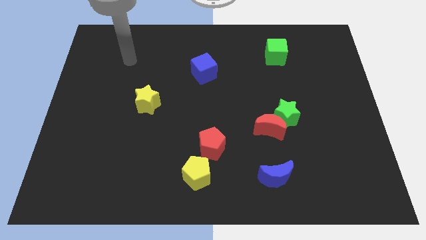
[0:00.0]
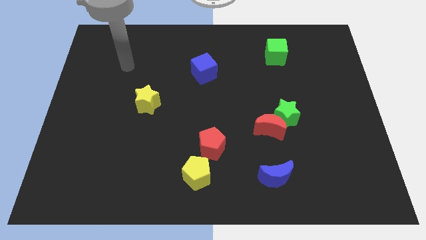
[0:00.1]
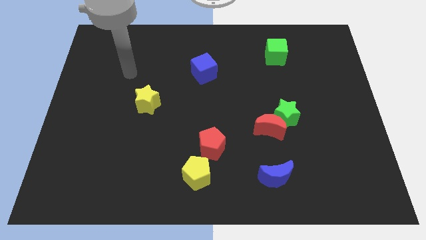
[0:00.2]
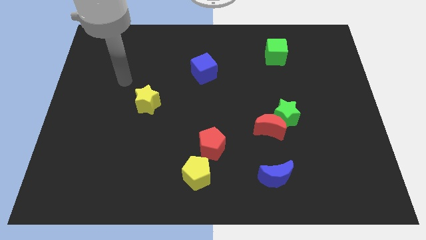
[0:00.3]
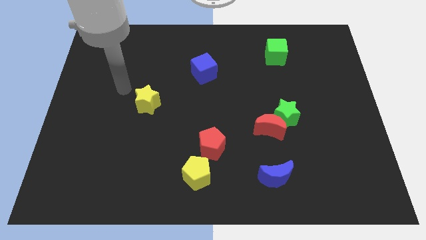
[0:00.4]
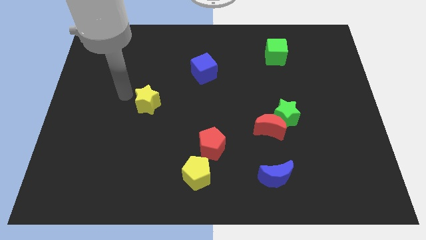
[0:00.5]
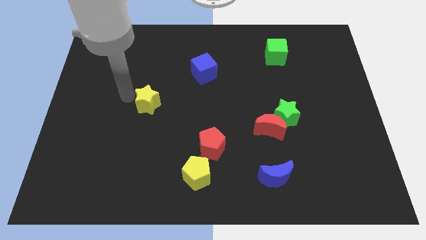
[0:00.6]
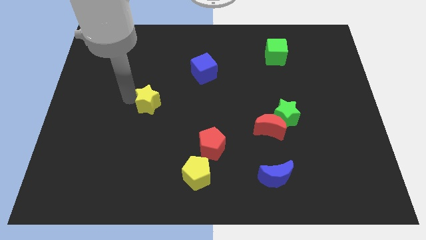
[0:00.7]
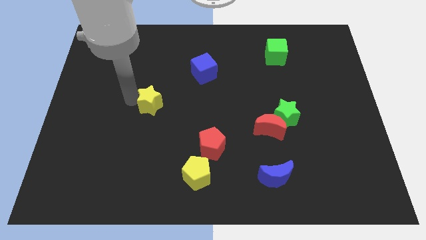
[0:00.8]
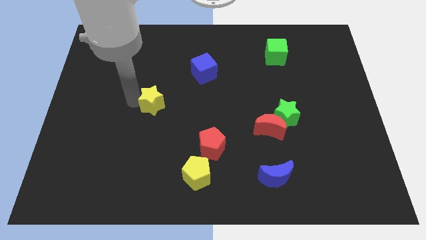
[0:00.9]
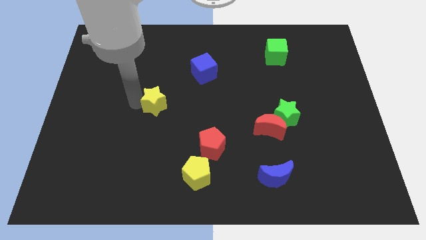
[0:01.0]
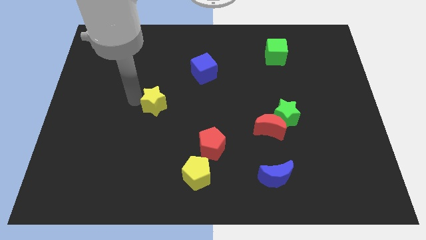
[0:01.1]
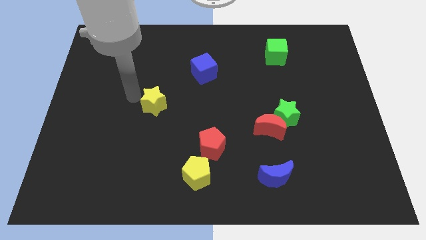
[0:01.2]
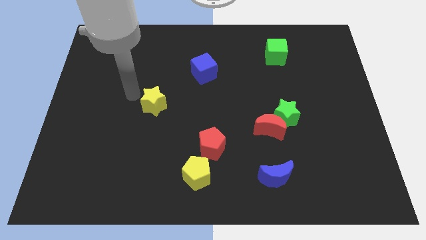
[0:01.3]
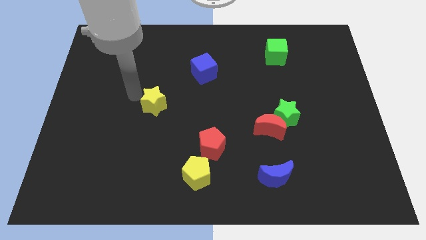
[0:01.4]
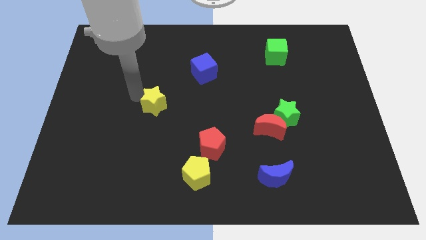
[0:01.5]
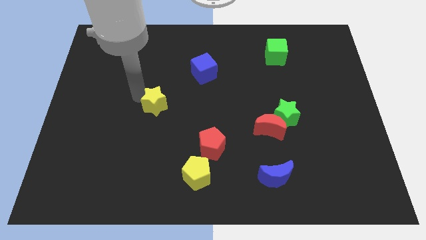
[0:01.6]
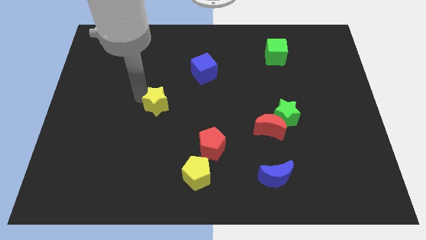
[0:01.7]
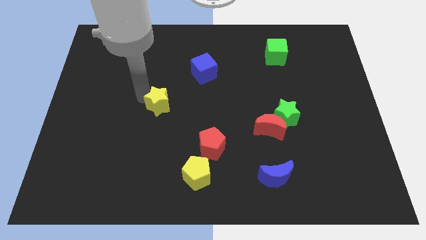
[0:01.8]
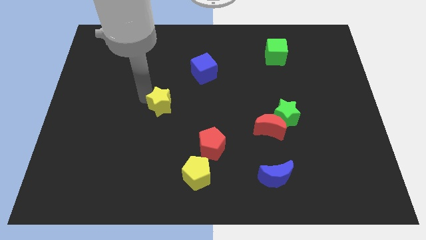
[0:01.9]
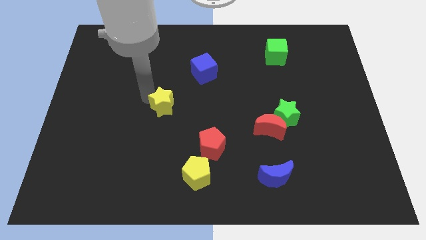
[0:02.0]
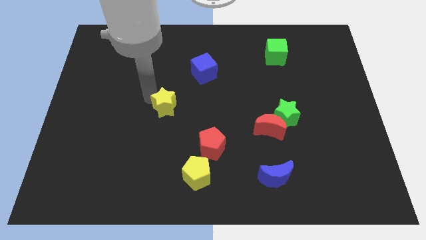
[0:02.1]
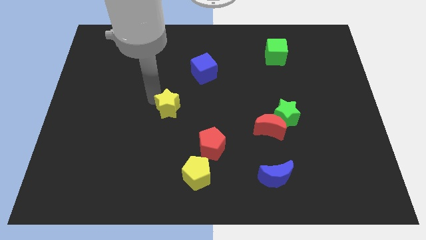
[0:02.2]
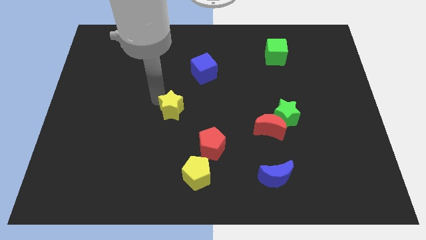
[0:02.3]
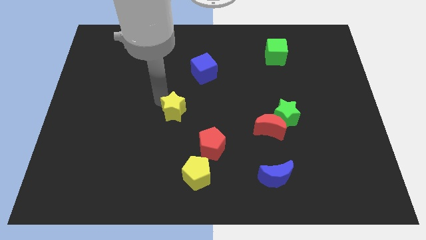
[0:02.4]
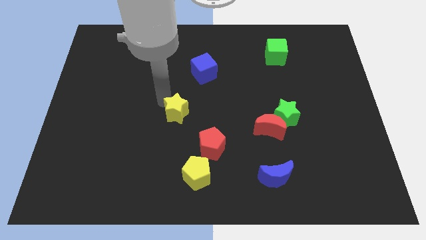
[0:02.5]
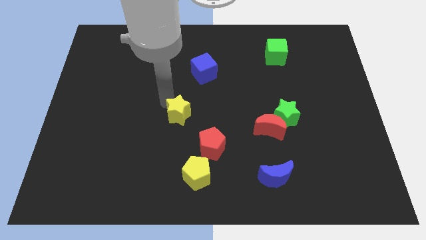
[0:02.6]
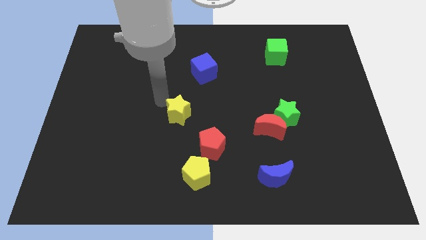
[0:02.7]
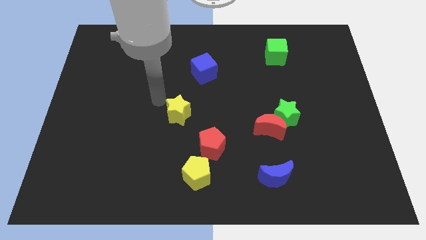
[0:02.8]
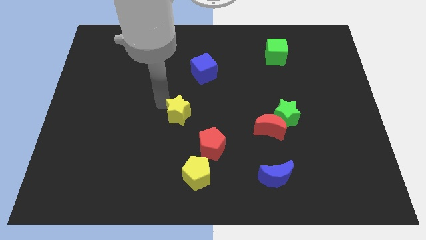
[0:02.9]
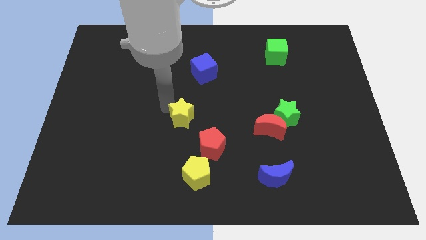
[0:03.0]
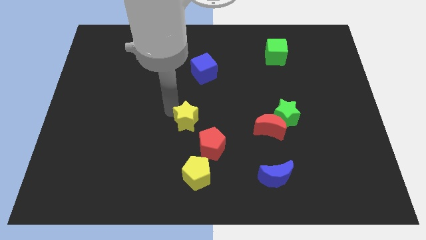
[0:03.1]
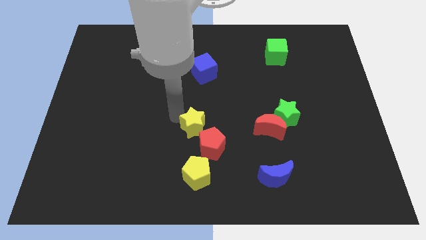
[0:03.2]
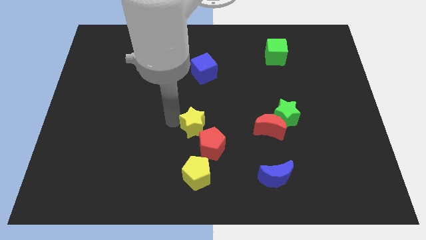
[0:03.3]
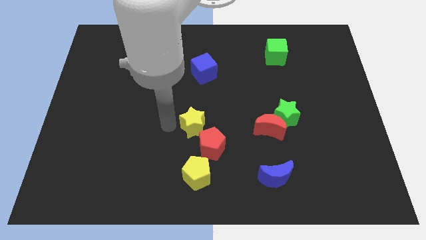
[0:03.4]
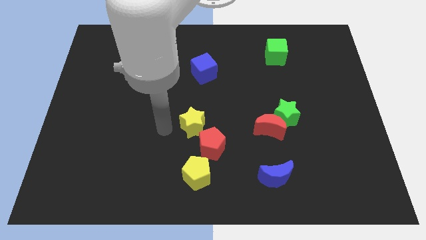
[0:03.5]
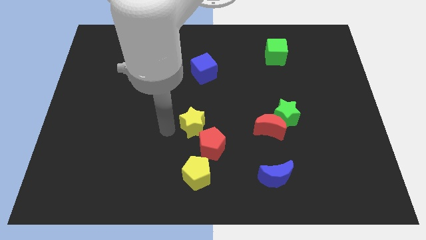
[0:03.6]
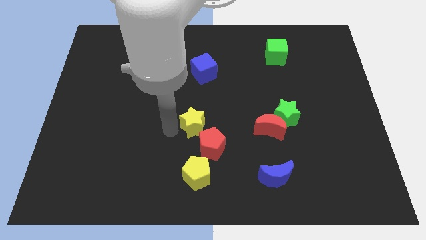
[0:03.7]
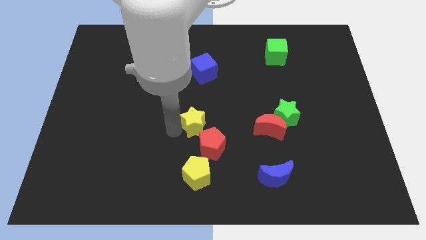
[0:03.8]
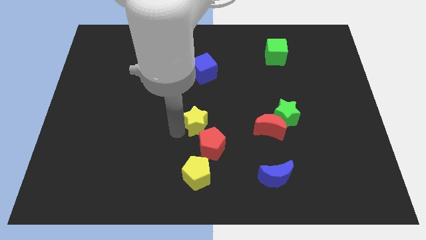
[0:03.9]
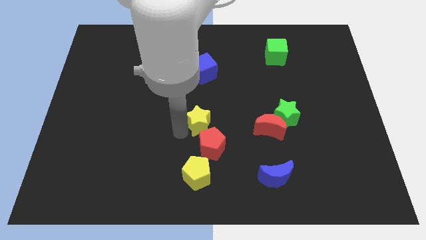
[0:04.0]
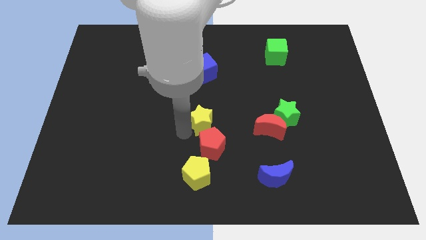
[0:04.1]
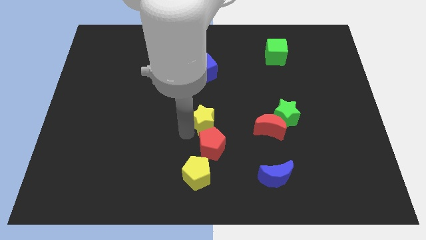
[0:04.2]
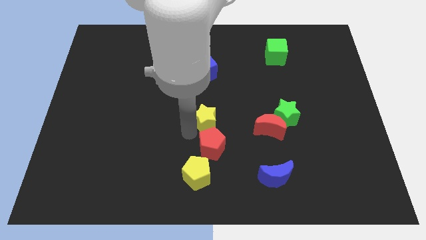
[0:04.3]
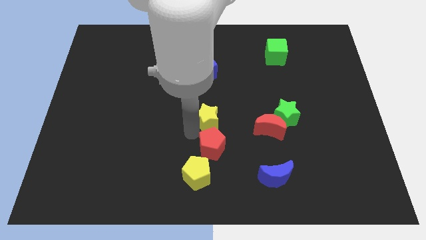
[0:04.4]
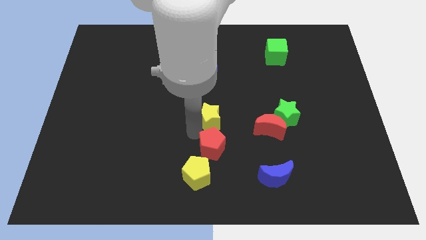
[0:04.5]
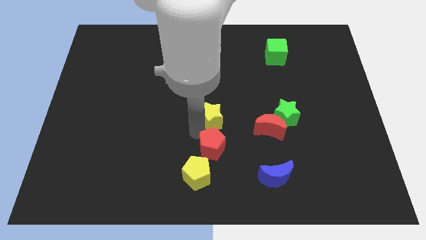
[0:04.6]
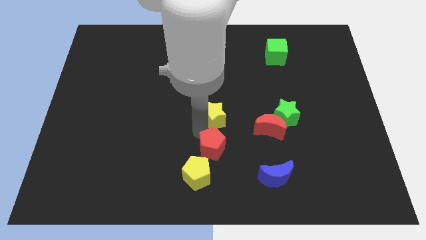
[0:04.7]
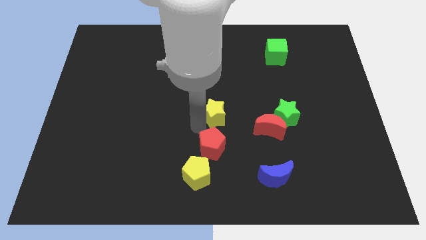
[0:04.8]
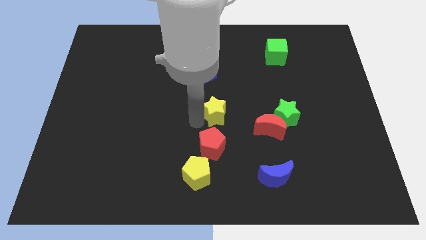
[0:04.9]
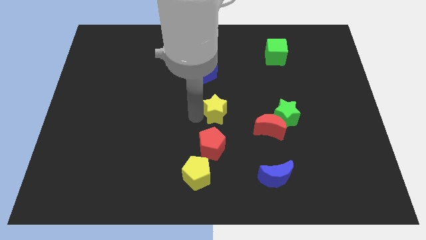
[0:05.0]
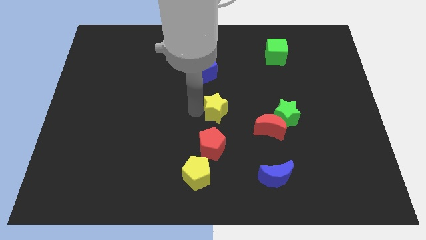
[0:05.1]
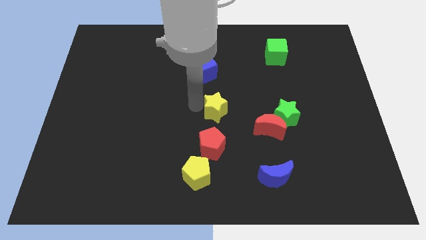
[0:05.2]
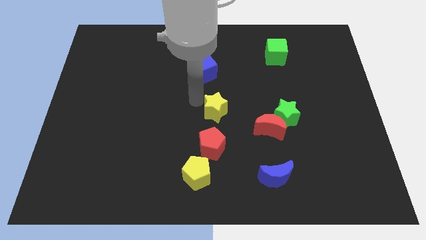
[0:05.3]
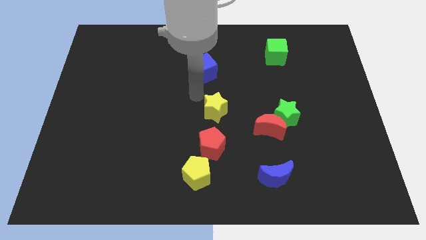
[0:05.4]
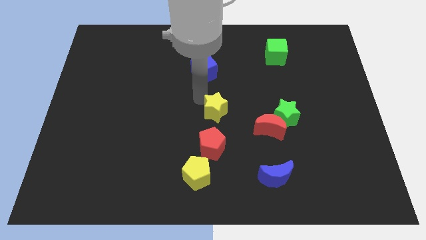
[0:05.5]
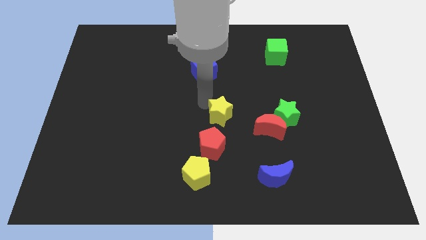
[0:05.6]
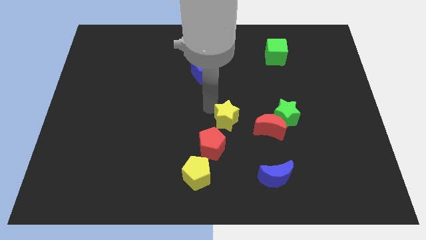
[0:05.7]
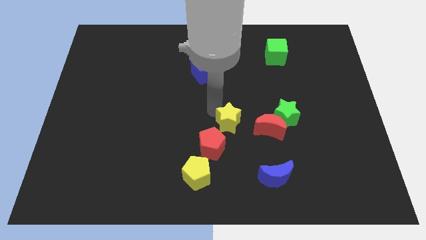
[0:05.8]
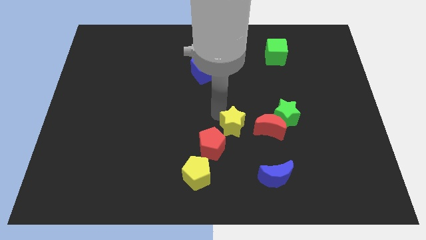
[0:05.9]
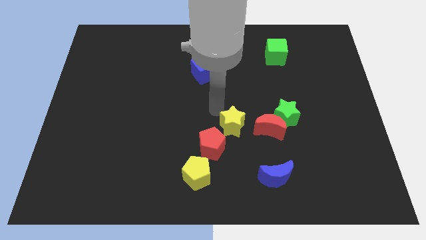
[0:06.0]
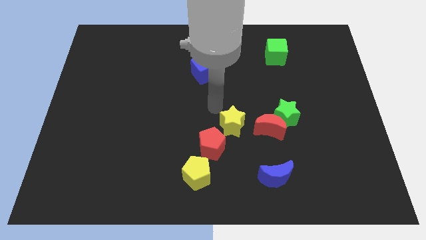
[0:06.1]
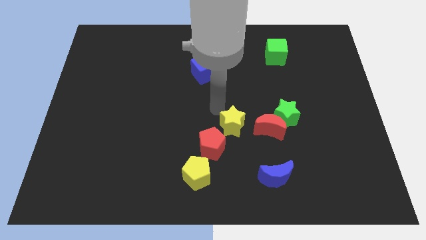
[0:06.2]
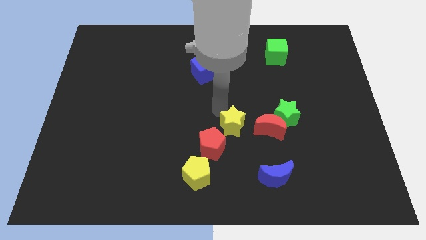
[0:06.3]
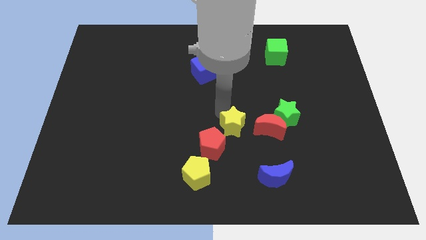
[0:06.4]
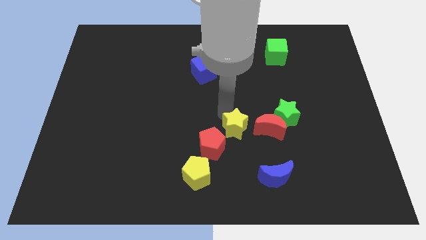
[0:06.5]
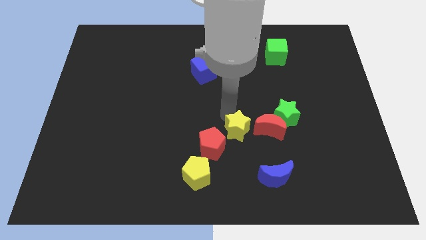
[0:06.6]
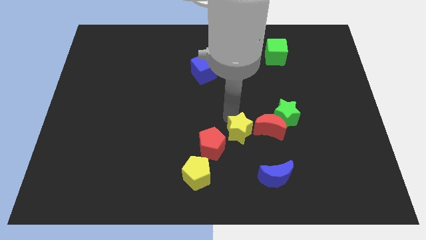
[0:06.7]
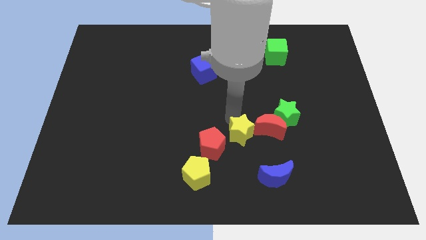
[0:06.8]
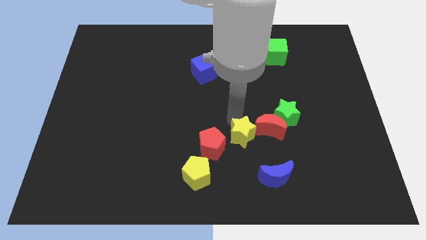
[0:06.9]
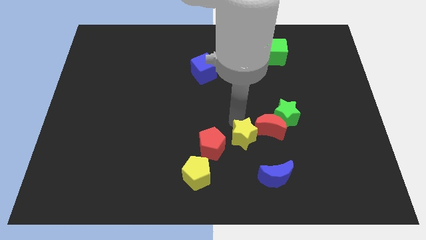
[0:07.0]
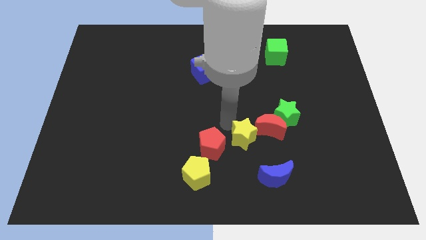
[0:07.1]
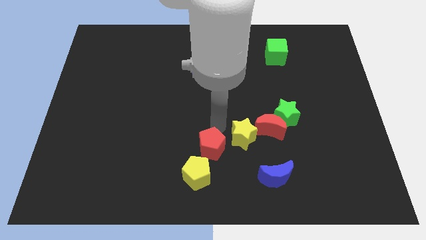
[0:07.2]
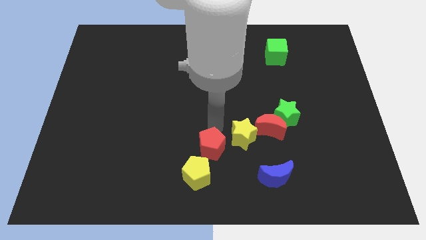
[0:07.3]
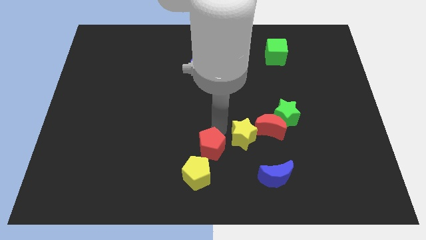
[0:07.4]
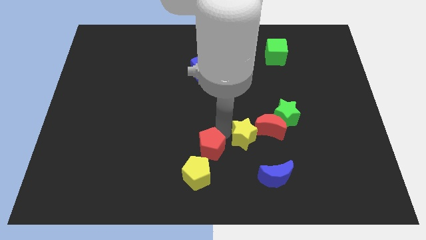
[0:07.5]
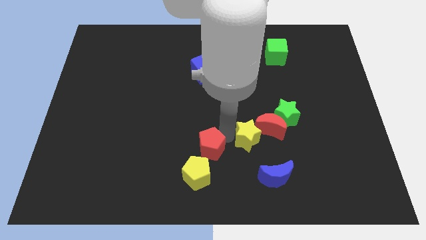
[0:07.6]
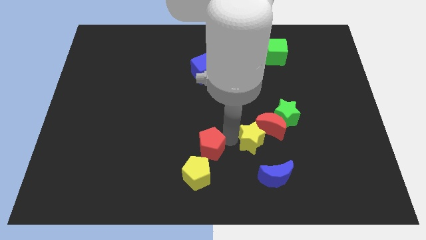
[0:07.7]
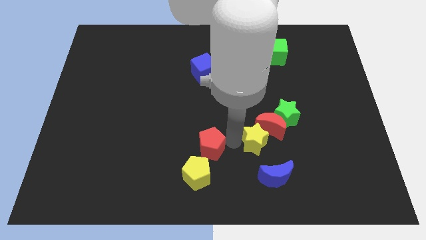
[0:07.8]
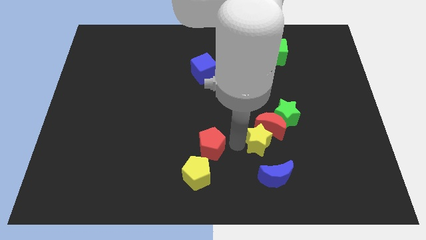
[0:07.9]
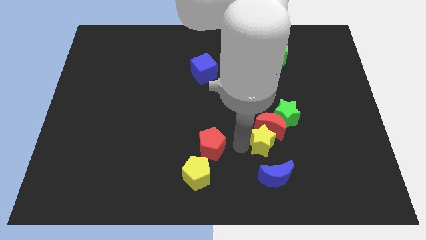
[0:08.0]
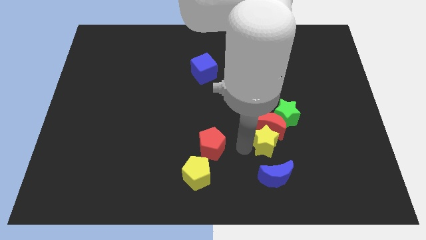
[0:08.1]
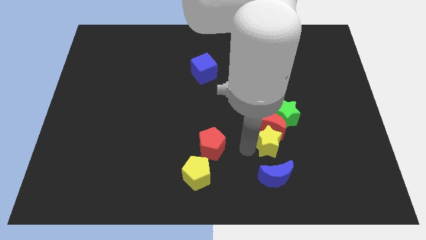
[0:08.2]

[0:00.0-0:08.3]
slide the yellow star below the green star
